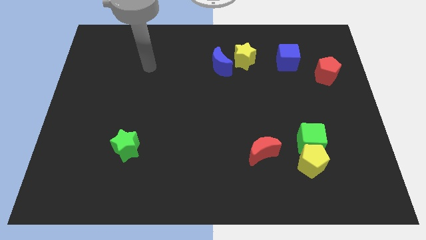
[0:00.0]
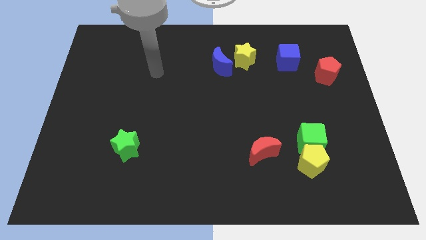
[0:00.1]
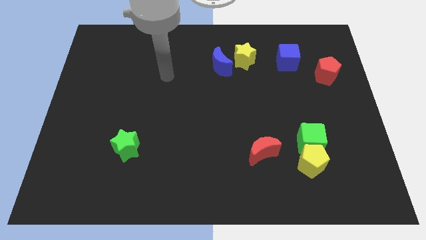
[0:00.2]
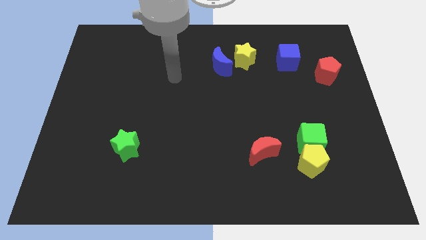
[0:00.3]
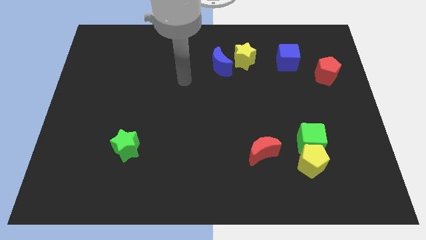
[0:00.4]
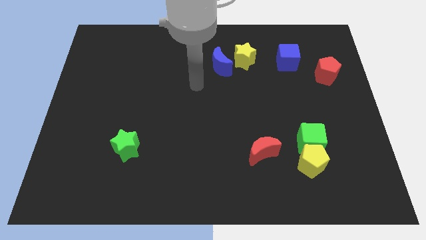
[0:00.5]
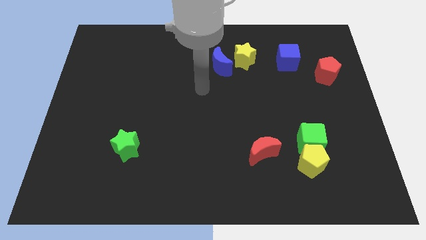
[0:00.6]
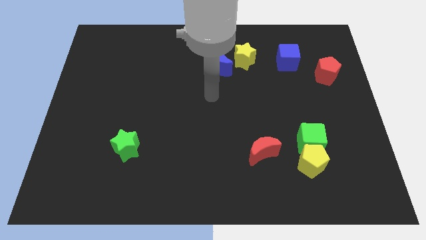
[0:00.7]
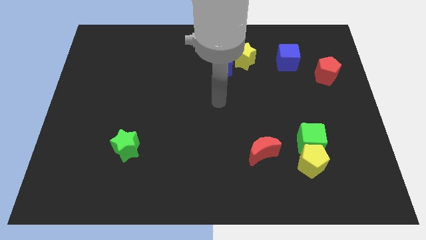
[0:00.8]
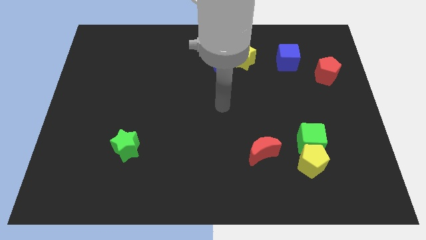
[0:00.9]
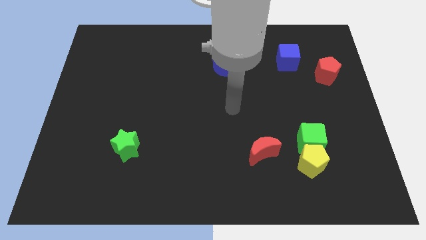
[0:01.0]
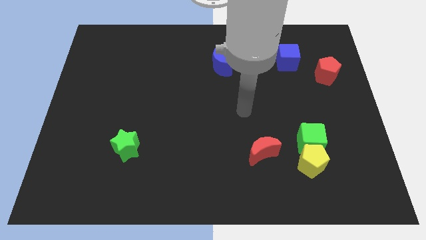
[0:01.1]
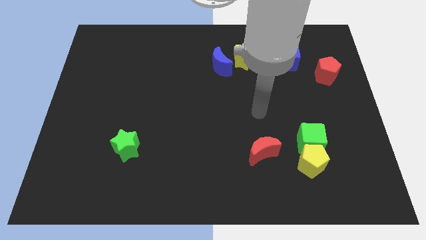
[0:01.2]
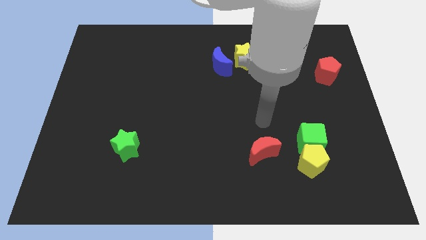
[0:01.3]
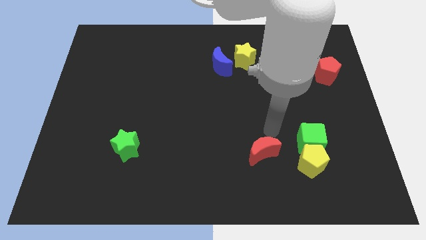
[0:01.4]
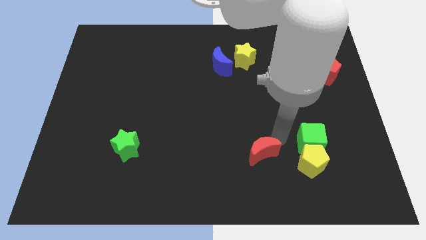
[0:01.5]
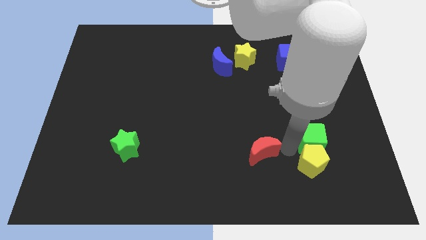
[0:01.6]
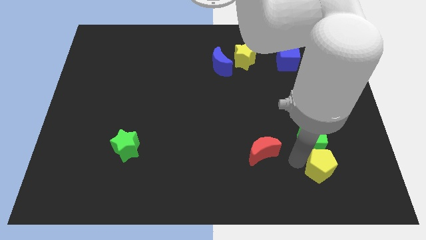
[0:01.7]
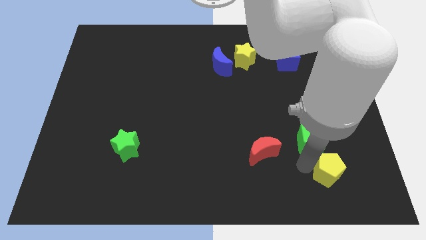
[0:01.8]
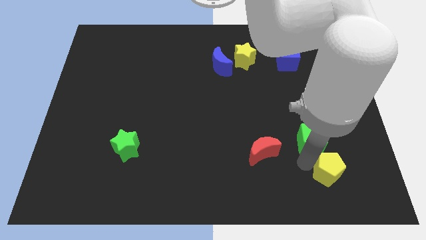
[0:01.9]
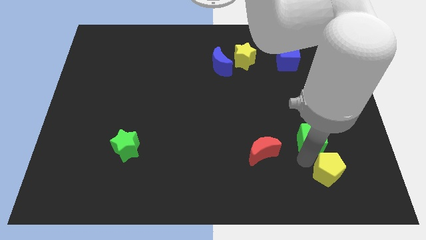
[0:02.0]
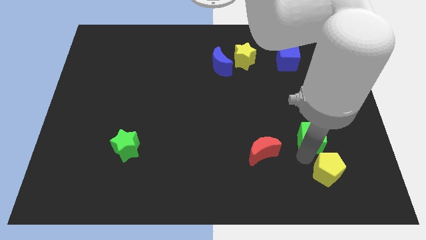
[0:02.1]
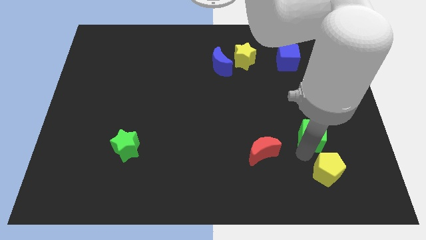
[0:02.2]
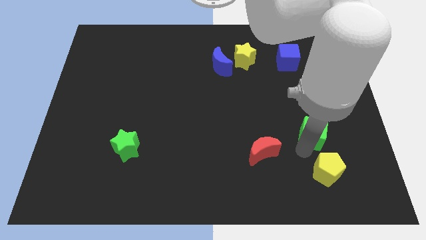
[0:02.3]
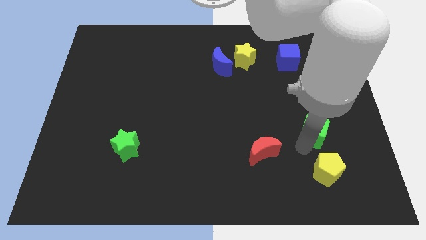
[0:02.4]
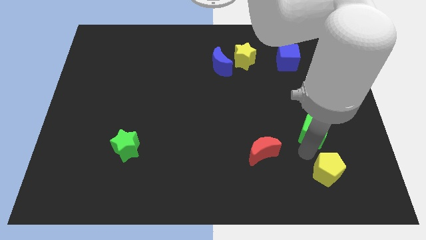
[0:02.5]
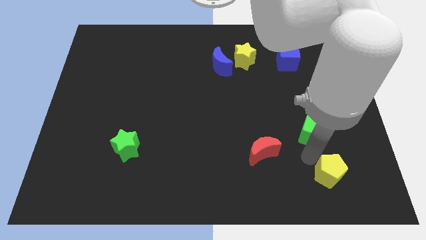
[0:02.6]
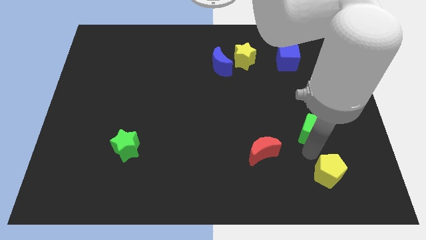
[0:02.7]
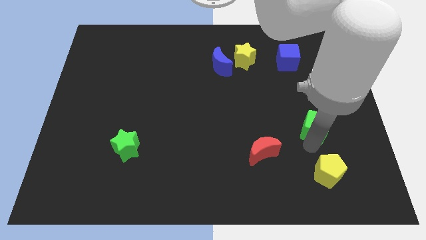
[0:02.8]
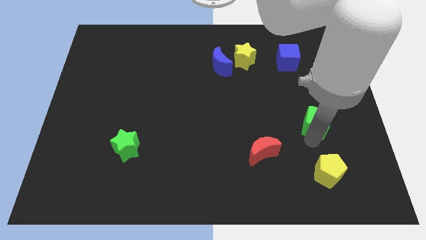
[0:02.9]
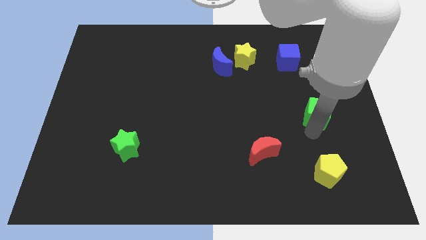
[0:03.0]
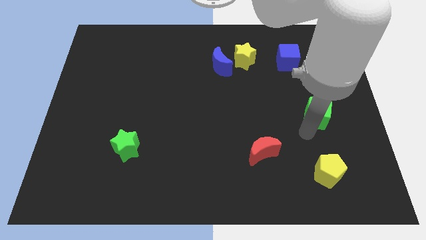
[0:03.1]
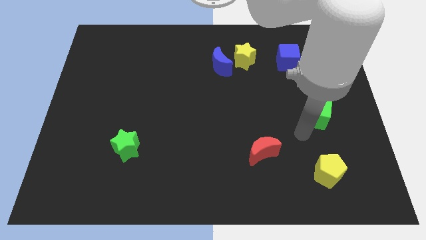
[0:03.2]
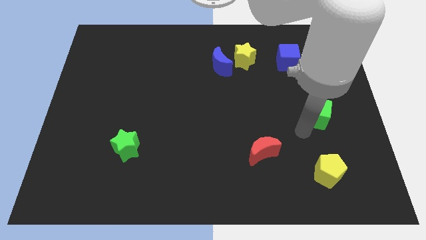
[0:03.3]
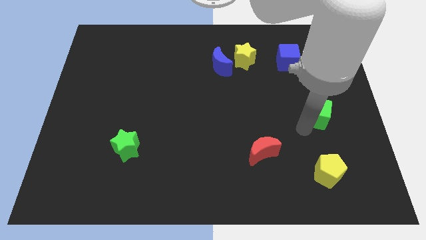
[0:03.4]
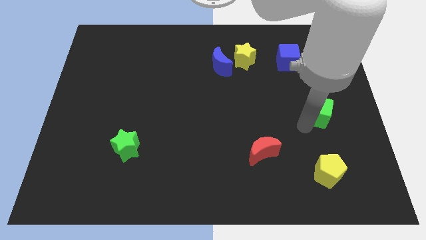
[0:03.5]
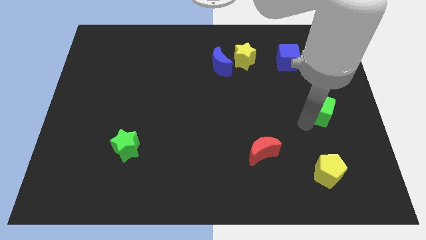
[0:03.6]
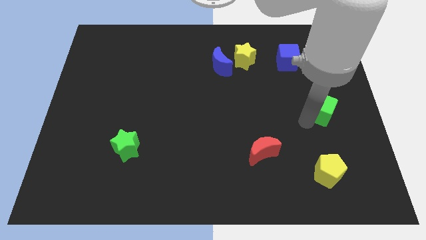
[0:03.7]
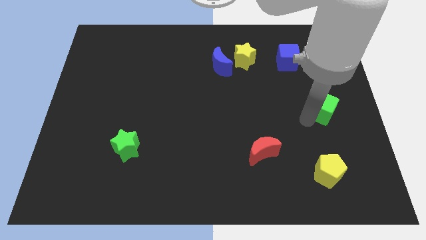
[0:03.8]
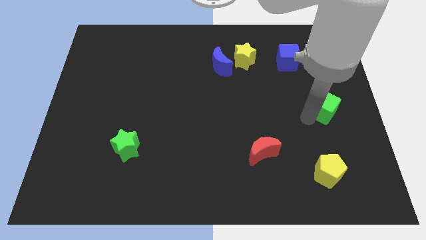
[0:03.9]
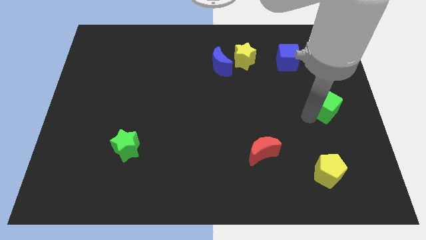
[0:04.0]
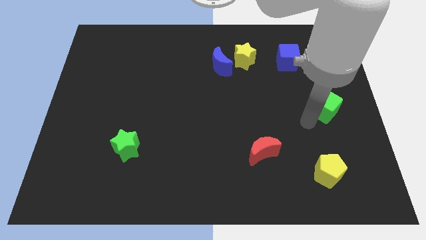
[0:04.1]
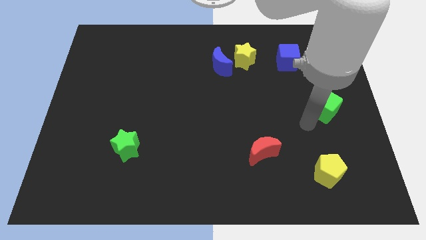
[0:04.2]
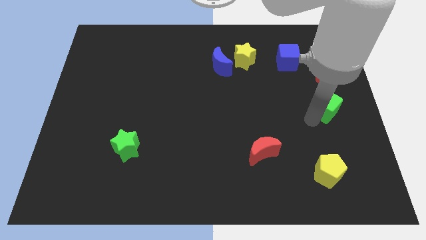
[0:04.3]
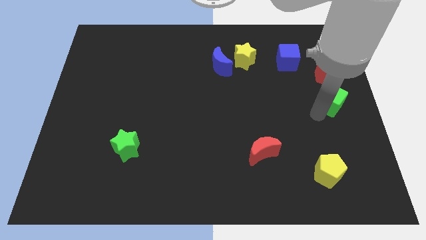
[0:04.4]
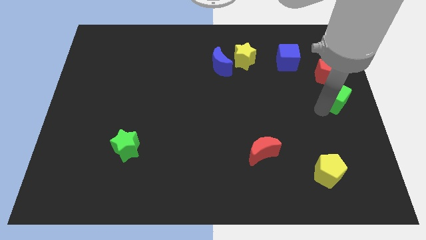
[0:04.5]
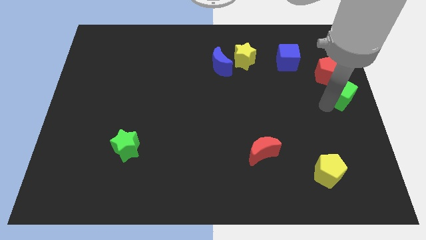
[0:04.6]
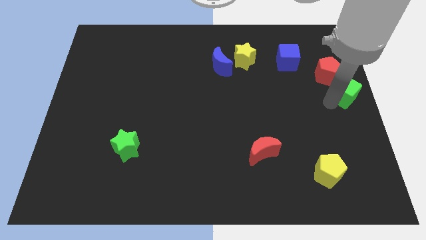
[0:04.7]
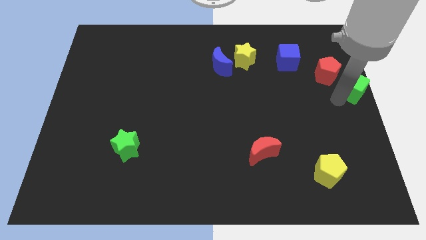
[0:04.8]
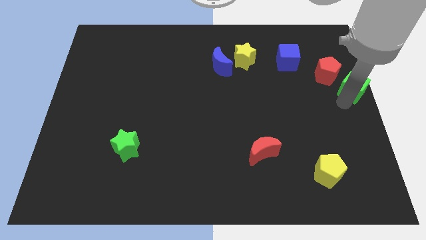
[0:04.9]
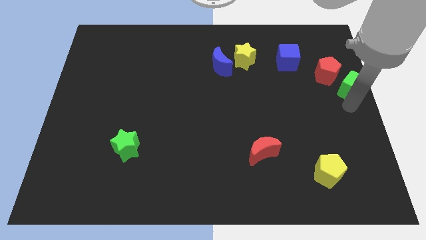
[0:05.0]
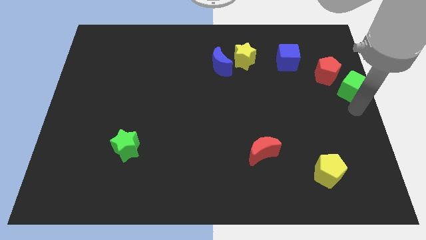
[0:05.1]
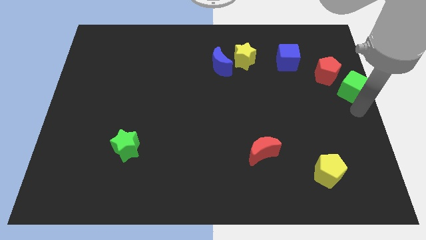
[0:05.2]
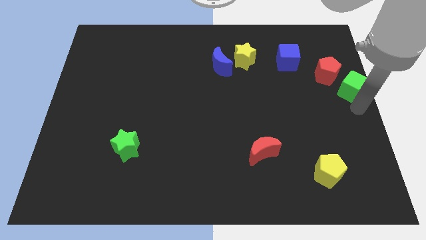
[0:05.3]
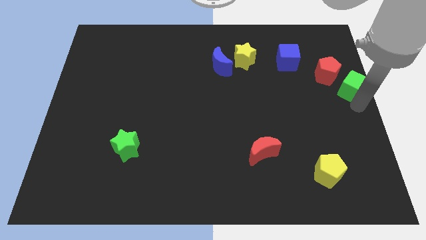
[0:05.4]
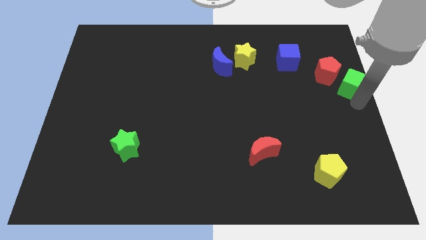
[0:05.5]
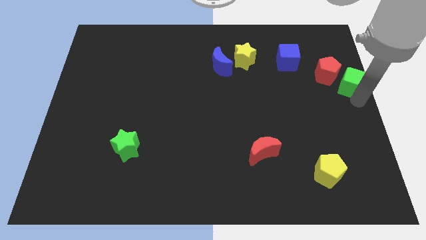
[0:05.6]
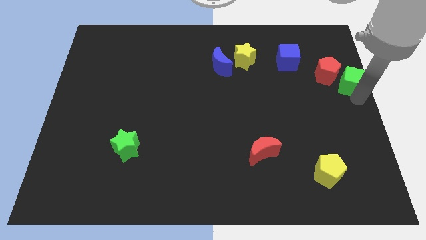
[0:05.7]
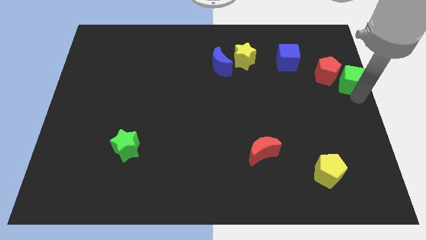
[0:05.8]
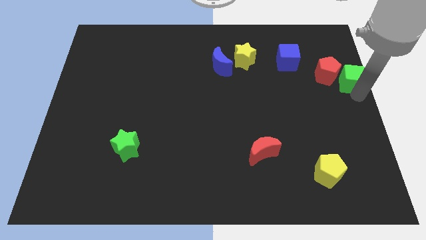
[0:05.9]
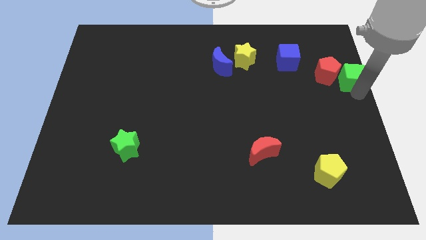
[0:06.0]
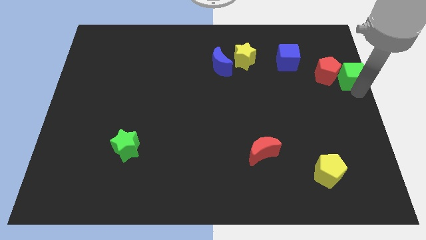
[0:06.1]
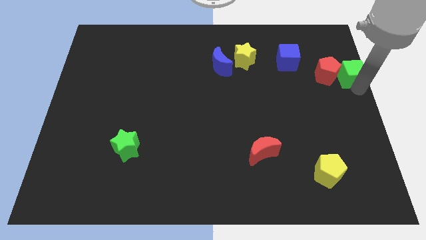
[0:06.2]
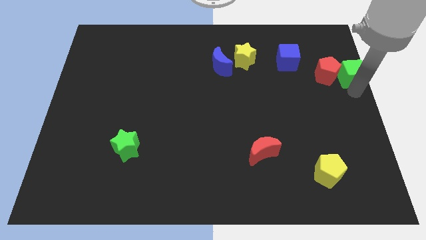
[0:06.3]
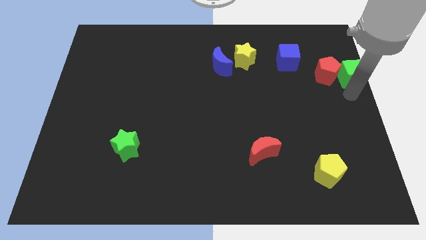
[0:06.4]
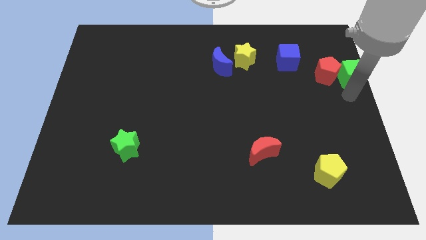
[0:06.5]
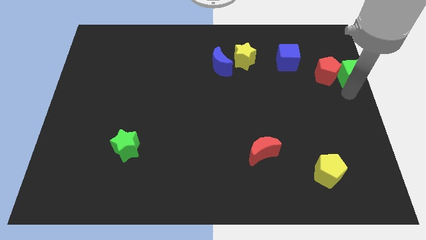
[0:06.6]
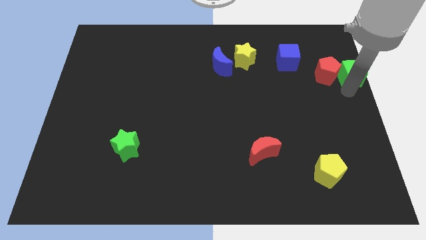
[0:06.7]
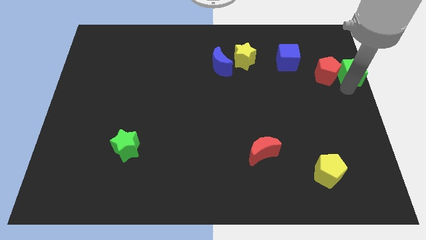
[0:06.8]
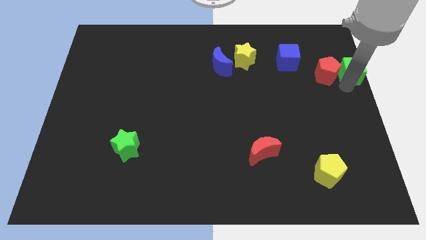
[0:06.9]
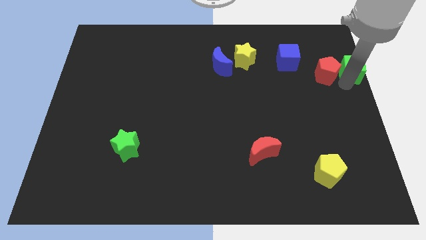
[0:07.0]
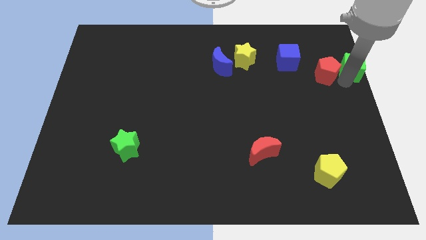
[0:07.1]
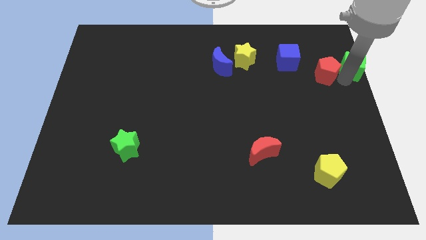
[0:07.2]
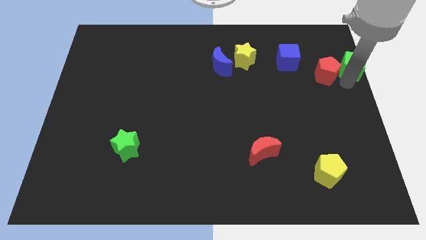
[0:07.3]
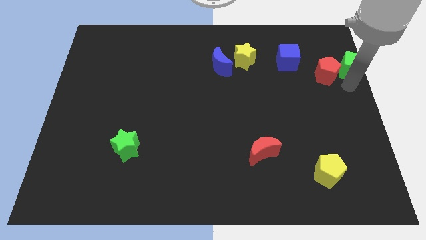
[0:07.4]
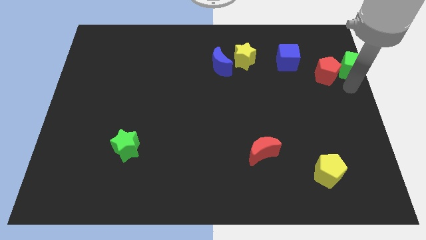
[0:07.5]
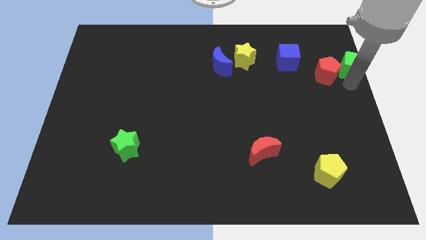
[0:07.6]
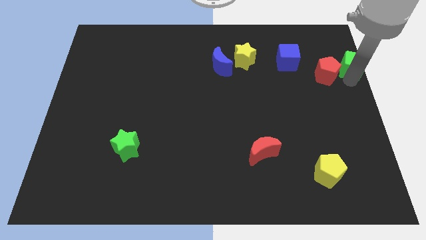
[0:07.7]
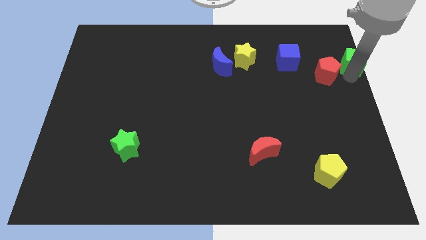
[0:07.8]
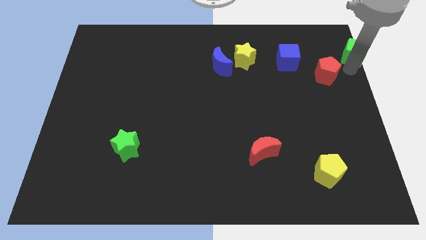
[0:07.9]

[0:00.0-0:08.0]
push the green cube to the top right corner
